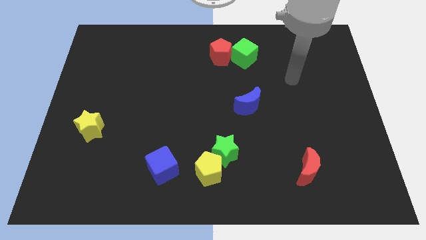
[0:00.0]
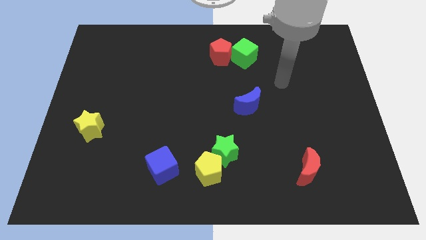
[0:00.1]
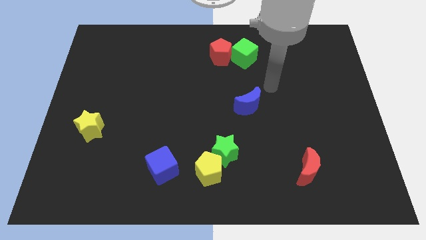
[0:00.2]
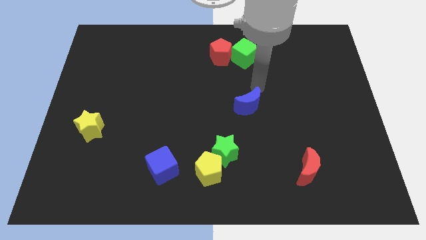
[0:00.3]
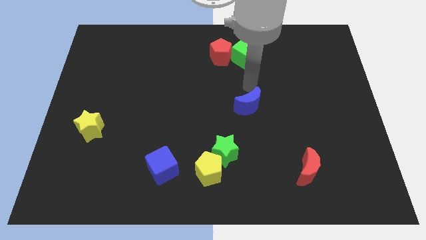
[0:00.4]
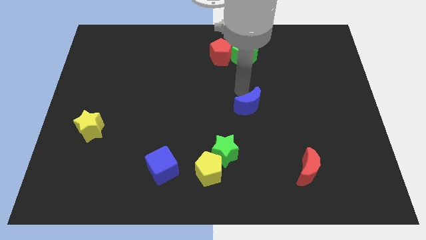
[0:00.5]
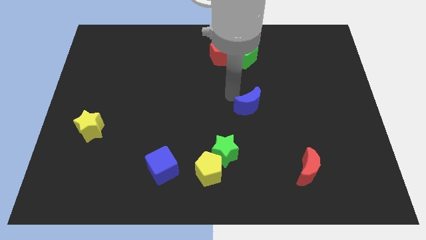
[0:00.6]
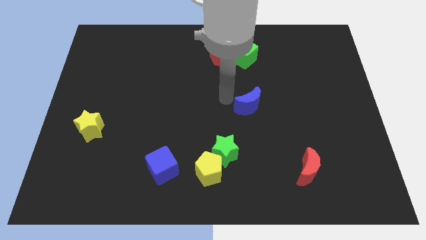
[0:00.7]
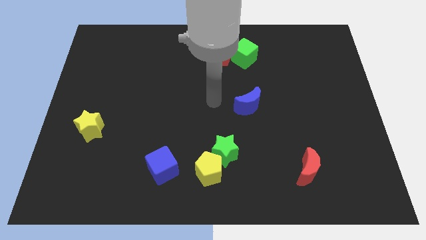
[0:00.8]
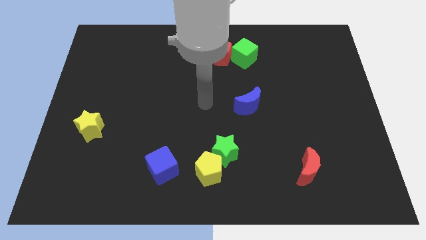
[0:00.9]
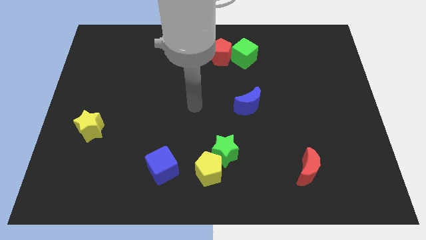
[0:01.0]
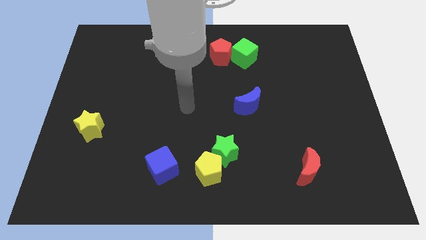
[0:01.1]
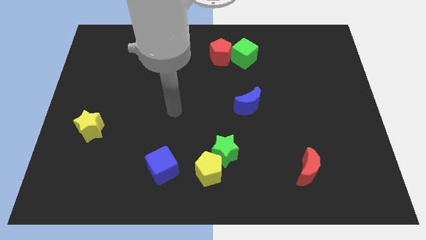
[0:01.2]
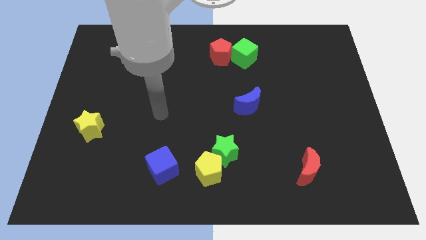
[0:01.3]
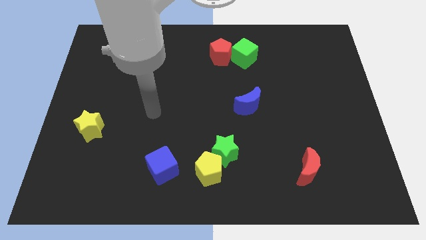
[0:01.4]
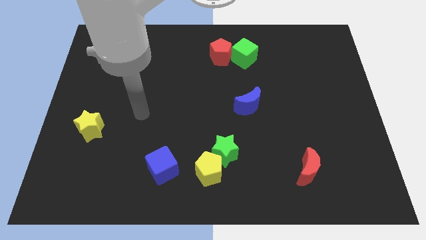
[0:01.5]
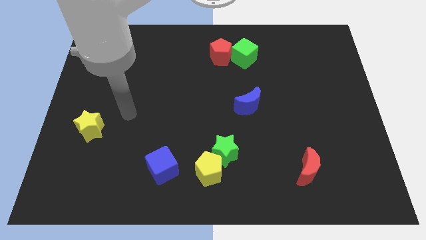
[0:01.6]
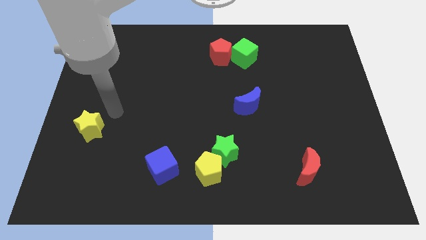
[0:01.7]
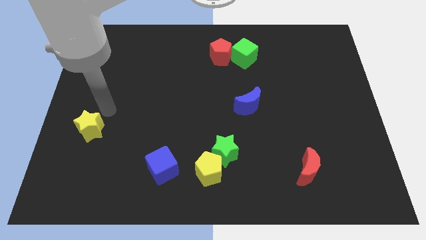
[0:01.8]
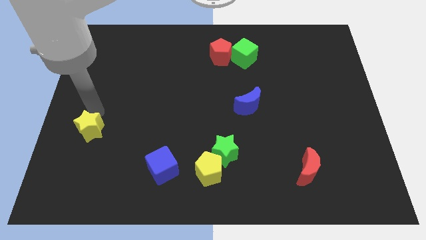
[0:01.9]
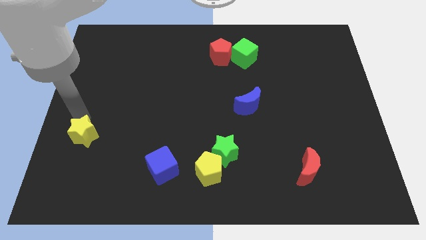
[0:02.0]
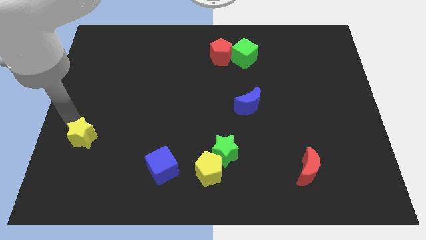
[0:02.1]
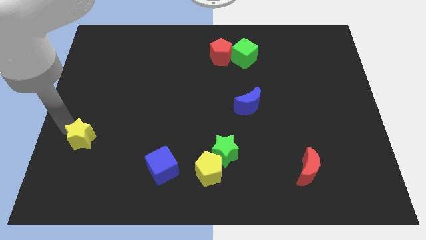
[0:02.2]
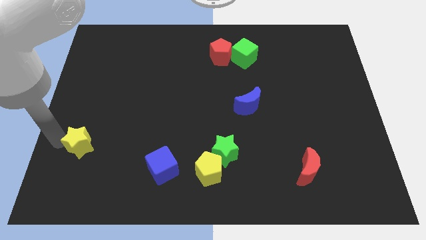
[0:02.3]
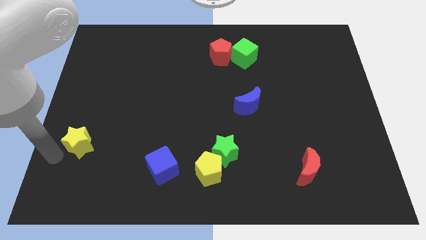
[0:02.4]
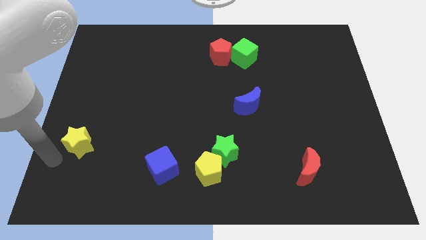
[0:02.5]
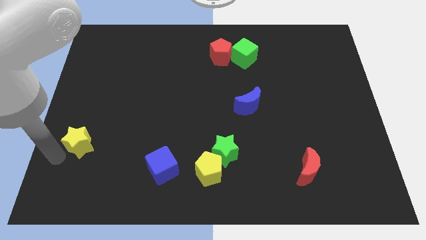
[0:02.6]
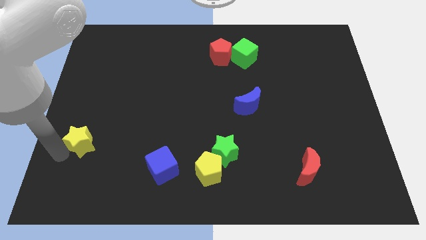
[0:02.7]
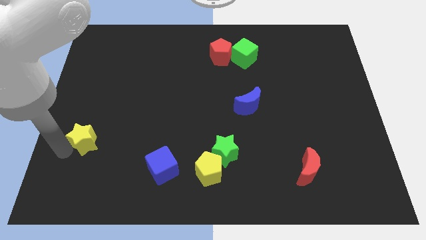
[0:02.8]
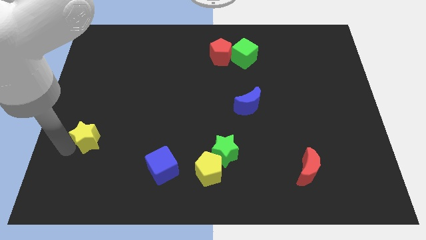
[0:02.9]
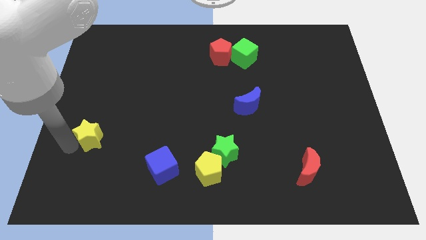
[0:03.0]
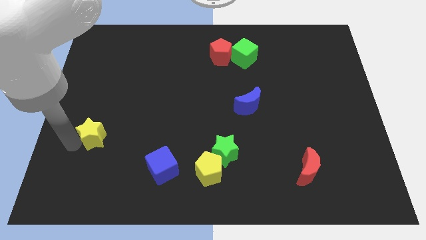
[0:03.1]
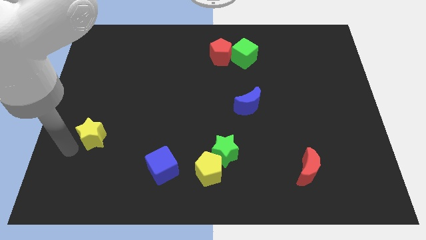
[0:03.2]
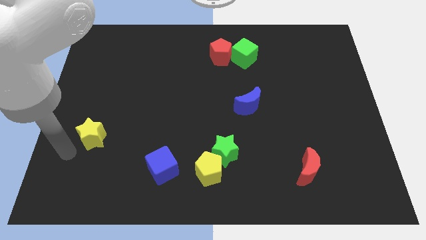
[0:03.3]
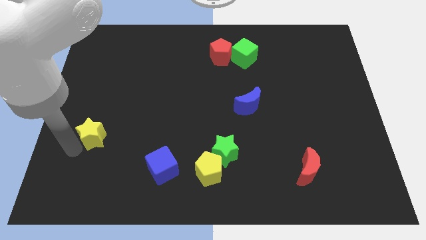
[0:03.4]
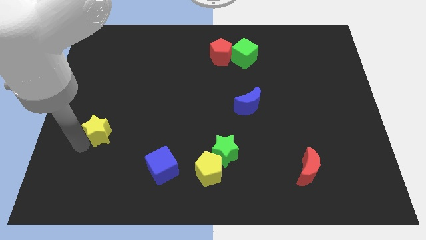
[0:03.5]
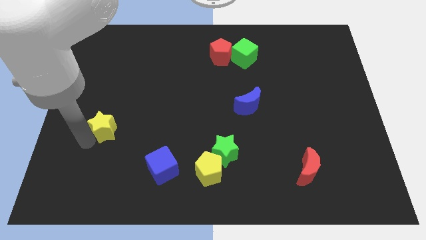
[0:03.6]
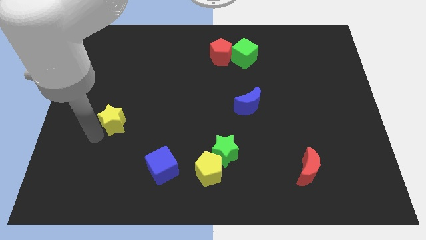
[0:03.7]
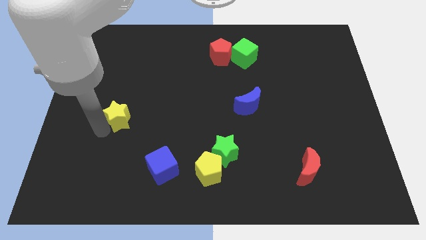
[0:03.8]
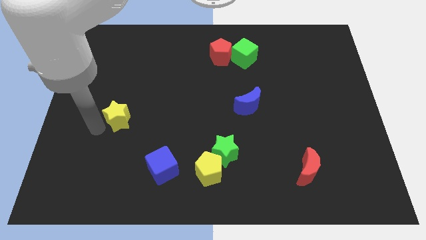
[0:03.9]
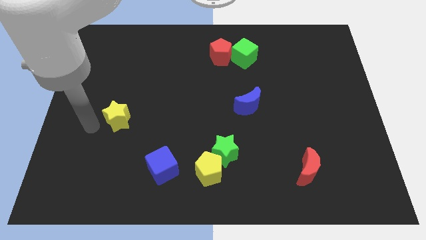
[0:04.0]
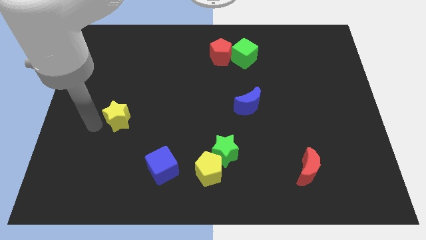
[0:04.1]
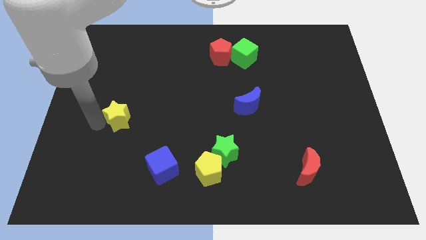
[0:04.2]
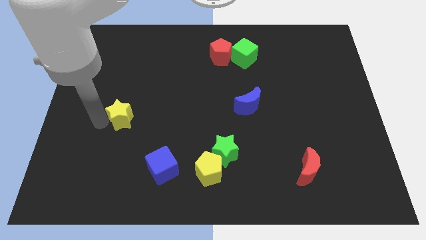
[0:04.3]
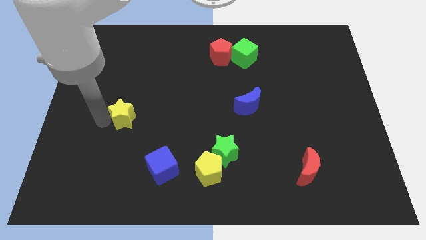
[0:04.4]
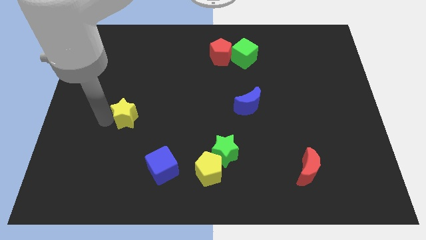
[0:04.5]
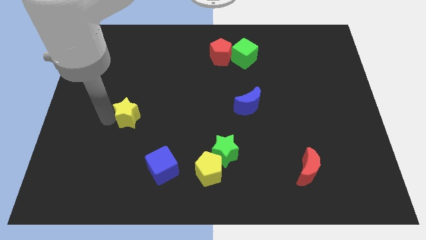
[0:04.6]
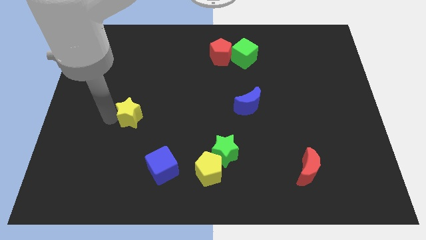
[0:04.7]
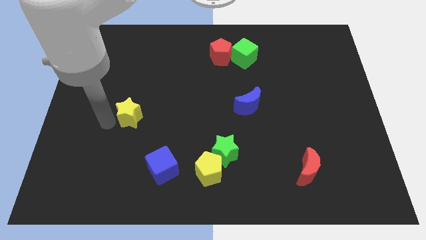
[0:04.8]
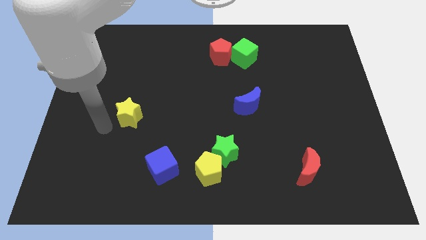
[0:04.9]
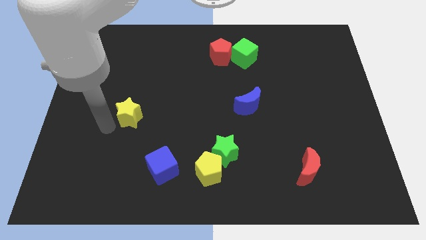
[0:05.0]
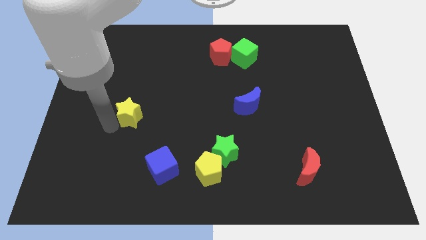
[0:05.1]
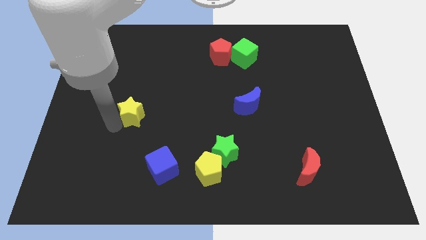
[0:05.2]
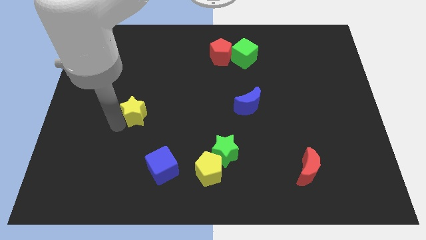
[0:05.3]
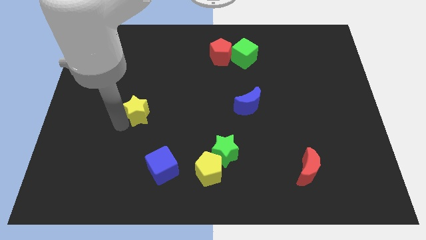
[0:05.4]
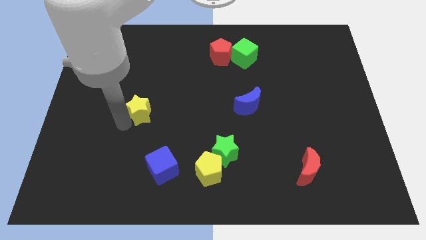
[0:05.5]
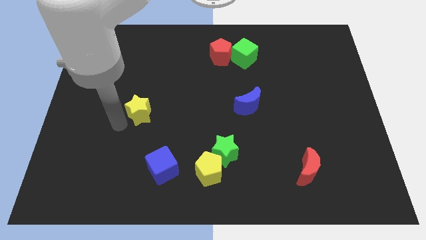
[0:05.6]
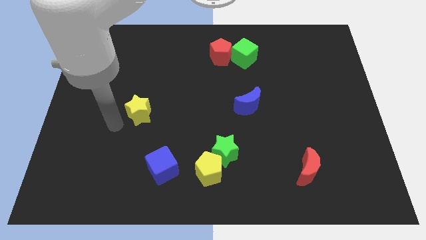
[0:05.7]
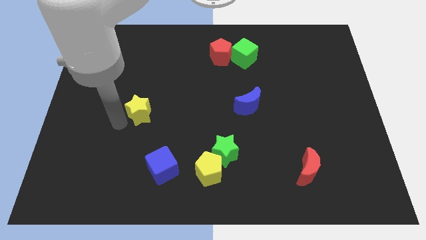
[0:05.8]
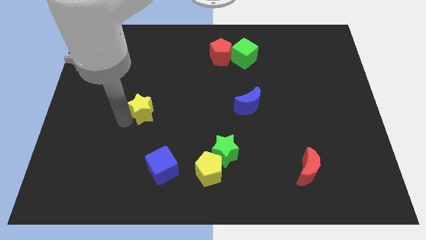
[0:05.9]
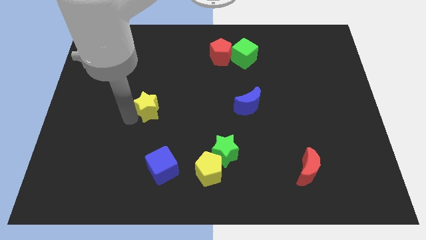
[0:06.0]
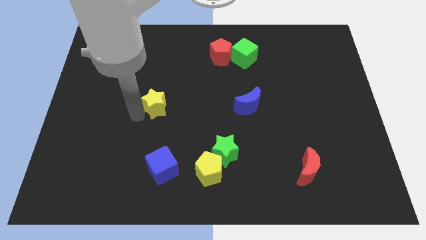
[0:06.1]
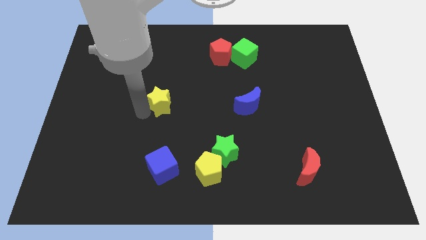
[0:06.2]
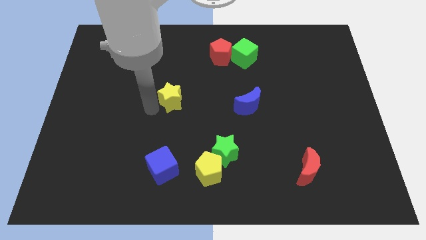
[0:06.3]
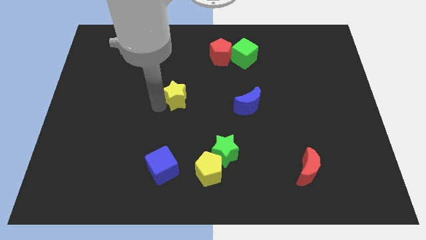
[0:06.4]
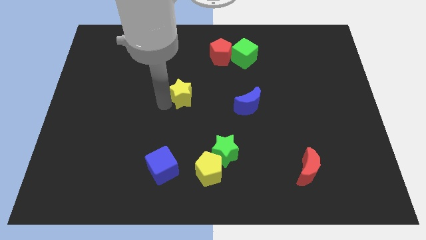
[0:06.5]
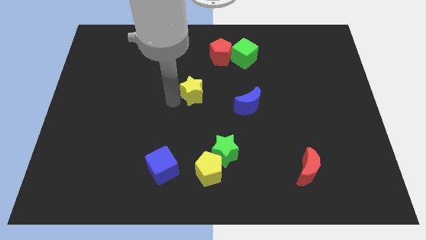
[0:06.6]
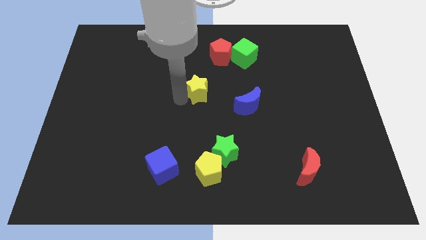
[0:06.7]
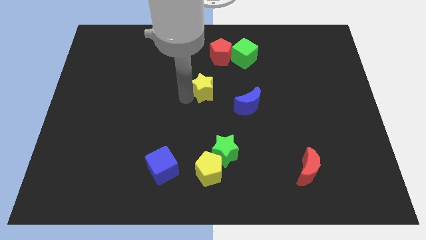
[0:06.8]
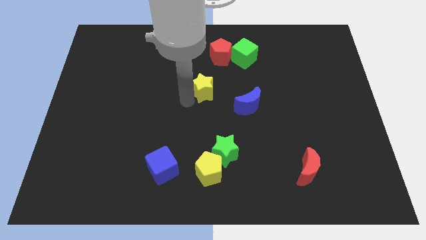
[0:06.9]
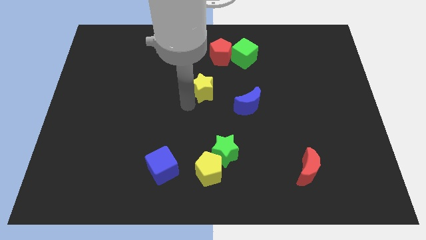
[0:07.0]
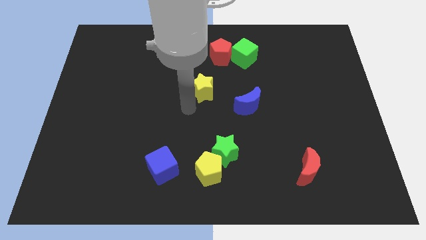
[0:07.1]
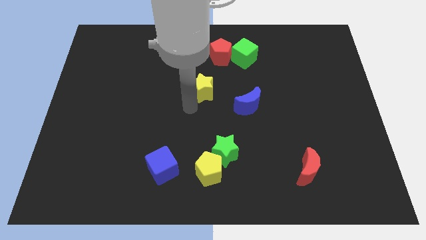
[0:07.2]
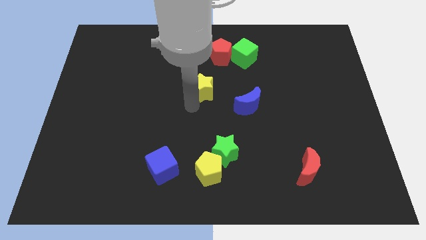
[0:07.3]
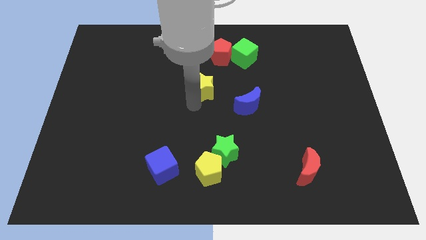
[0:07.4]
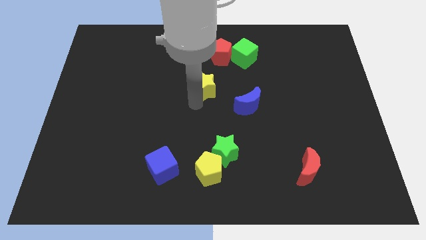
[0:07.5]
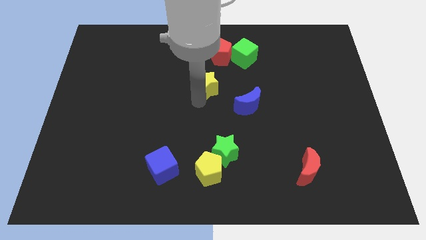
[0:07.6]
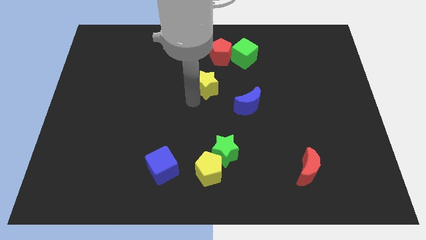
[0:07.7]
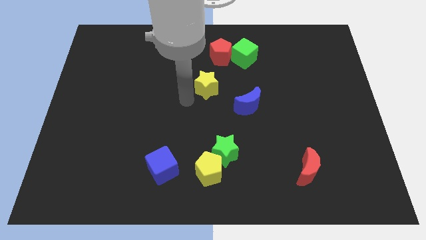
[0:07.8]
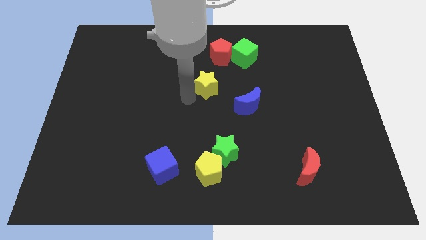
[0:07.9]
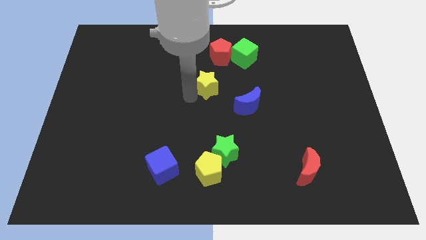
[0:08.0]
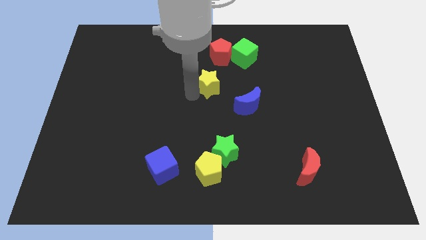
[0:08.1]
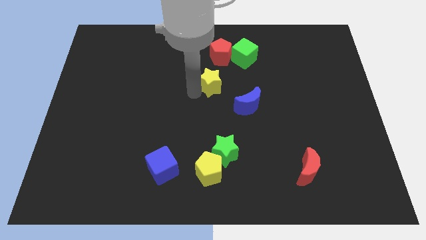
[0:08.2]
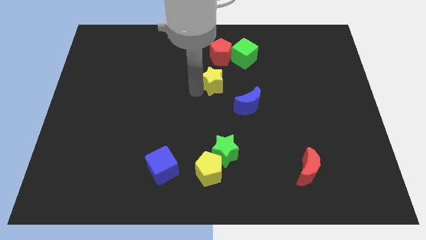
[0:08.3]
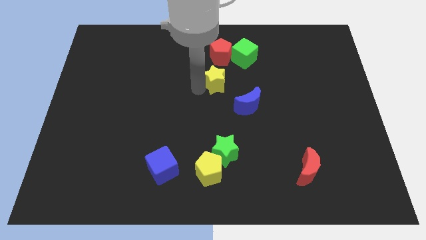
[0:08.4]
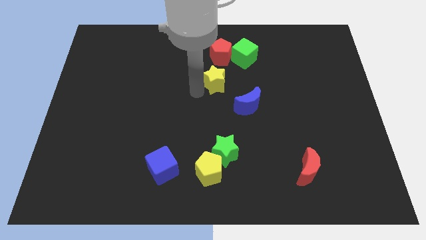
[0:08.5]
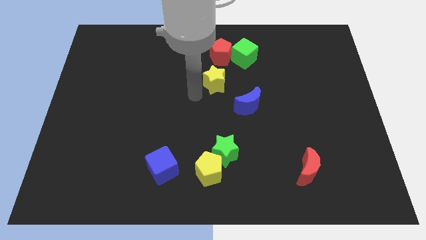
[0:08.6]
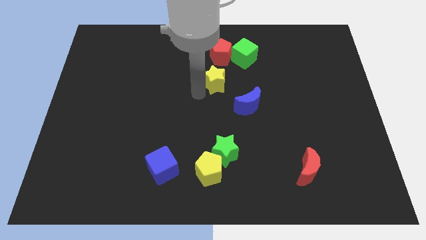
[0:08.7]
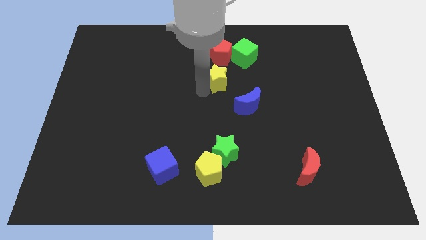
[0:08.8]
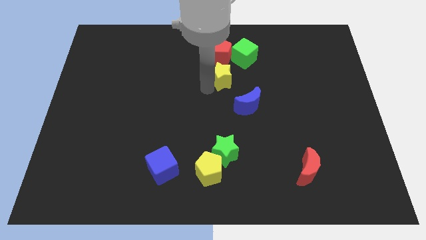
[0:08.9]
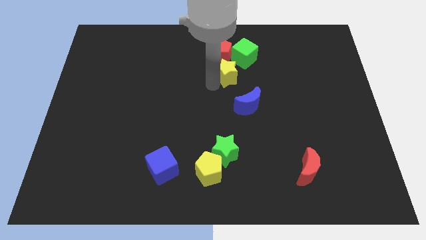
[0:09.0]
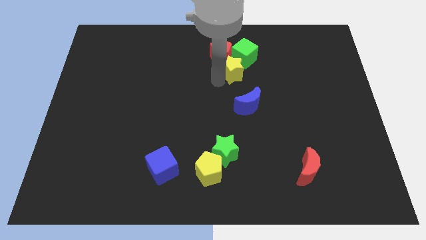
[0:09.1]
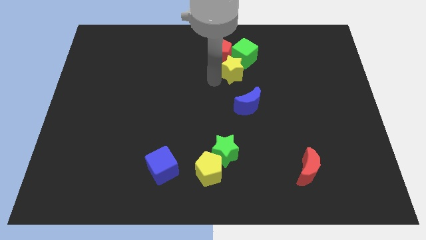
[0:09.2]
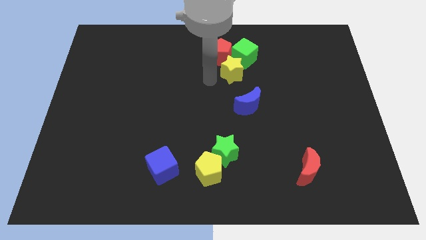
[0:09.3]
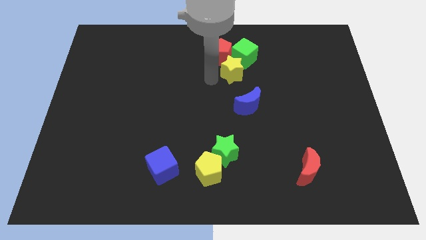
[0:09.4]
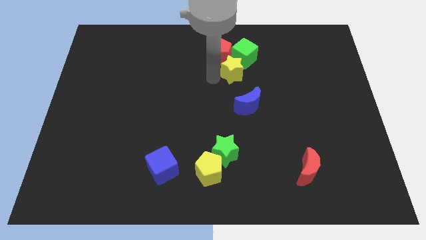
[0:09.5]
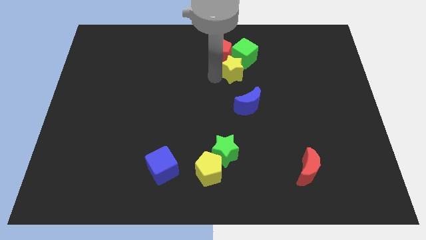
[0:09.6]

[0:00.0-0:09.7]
push the yellow star next to the green cube
